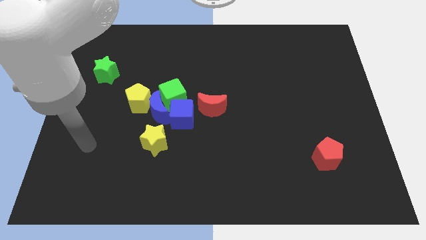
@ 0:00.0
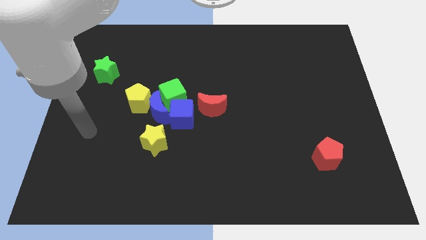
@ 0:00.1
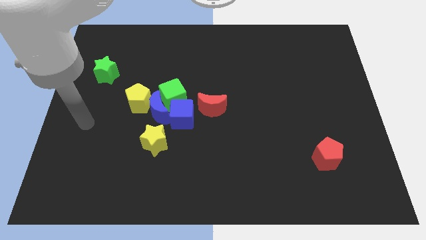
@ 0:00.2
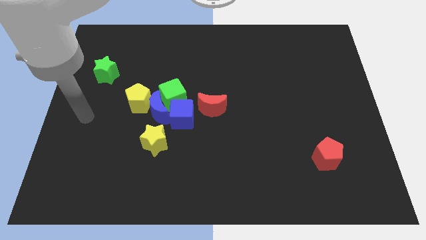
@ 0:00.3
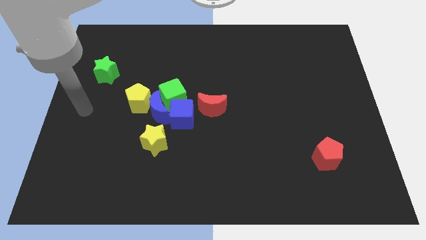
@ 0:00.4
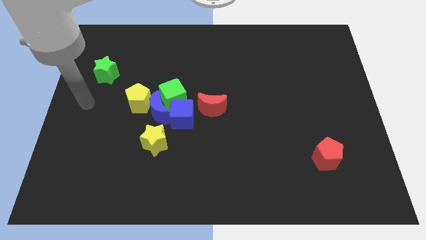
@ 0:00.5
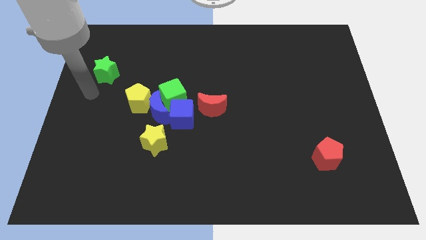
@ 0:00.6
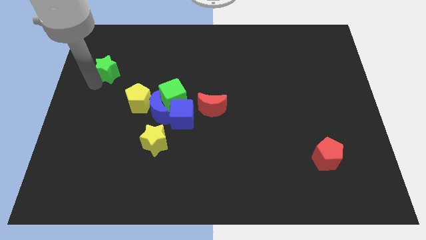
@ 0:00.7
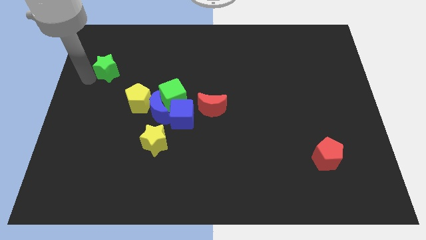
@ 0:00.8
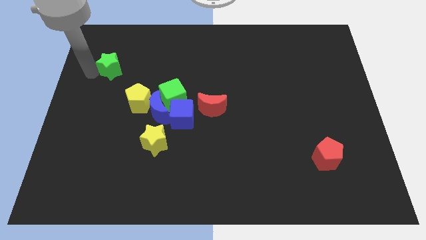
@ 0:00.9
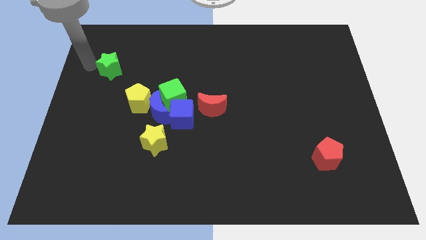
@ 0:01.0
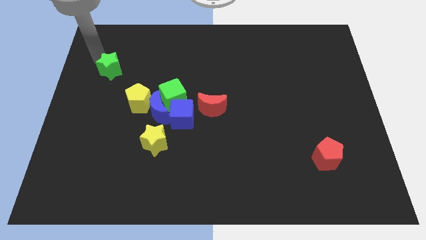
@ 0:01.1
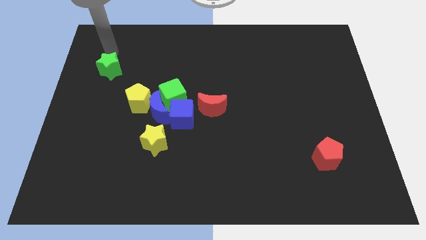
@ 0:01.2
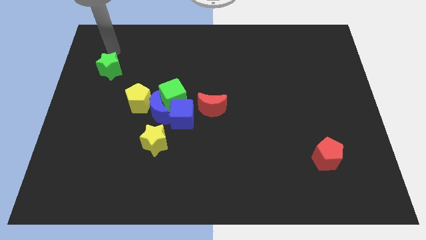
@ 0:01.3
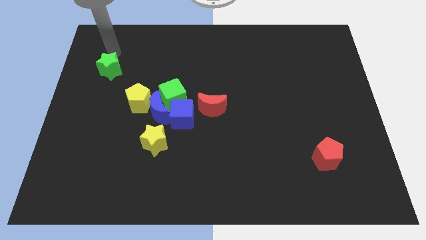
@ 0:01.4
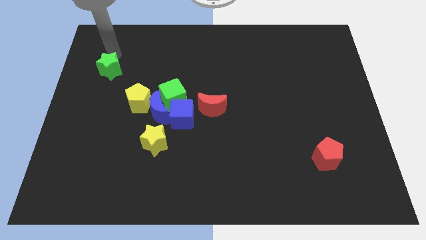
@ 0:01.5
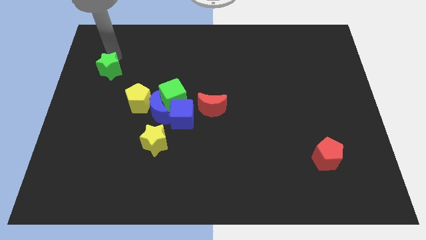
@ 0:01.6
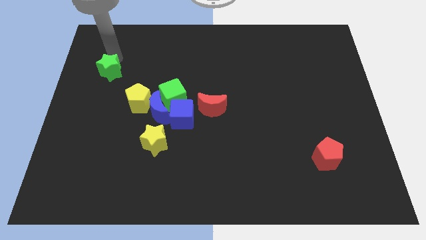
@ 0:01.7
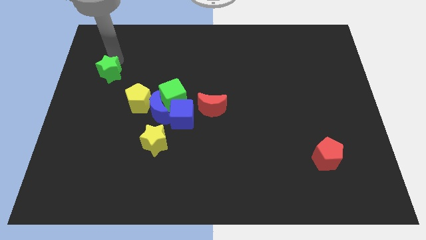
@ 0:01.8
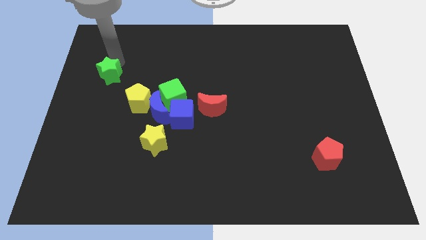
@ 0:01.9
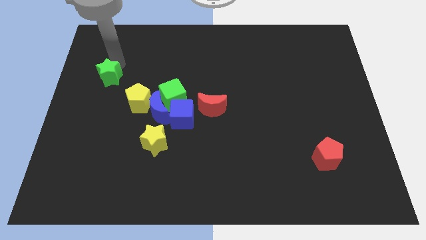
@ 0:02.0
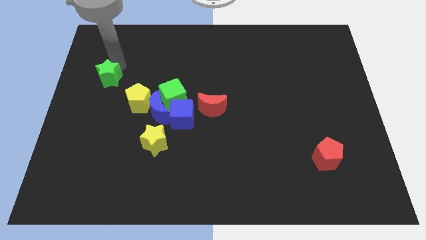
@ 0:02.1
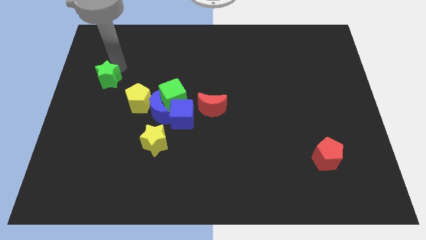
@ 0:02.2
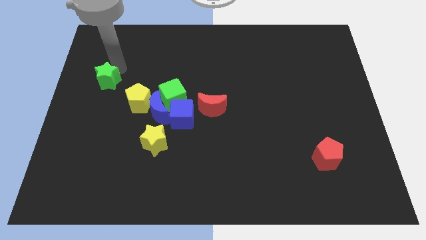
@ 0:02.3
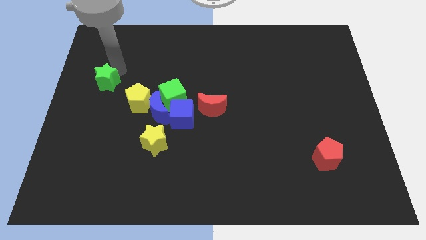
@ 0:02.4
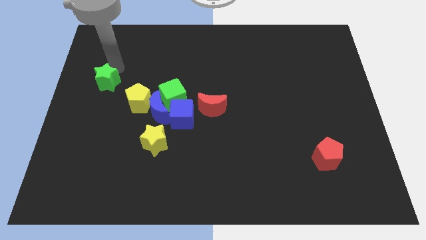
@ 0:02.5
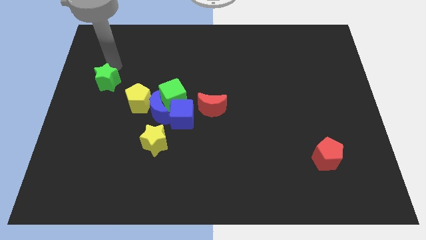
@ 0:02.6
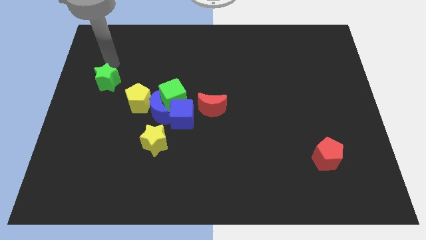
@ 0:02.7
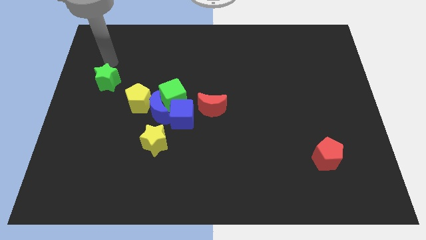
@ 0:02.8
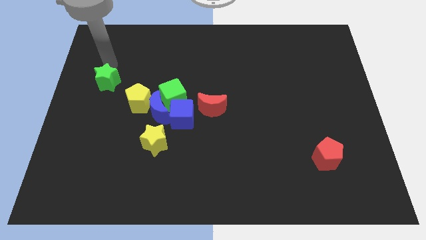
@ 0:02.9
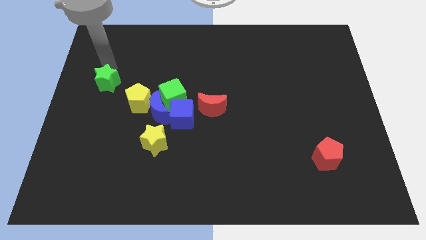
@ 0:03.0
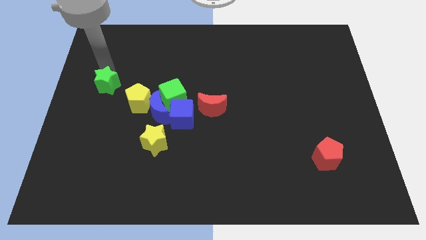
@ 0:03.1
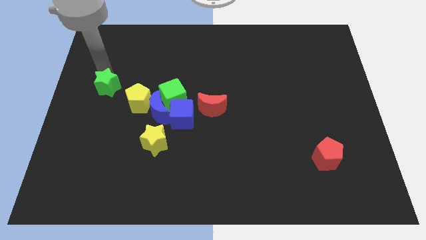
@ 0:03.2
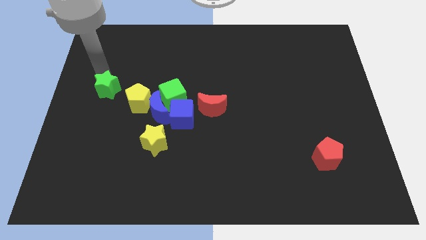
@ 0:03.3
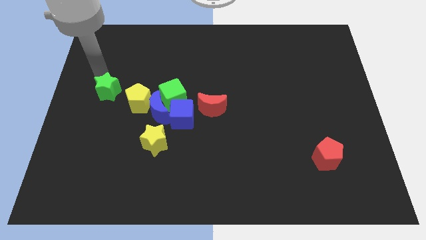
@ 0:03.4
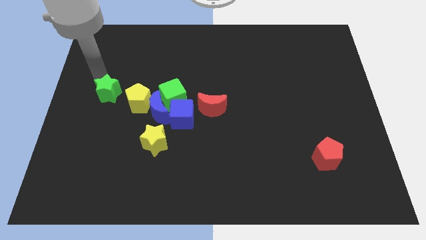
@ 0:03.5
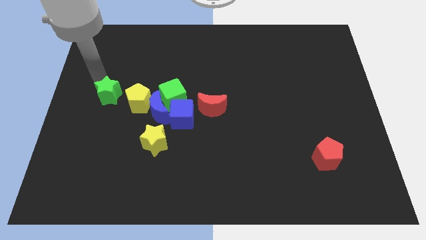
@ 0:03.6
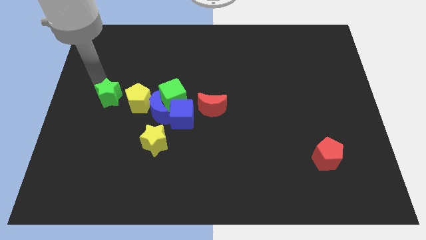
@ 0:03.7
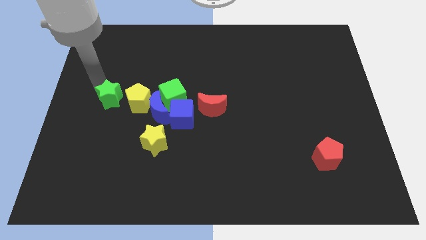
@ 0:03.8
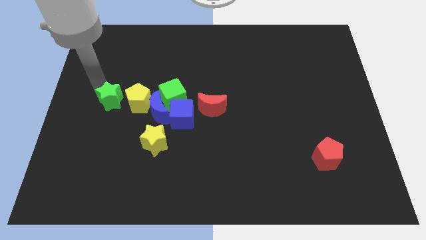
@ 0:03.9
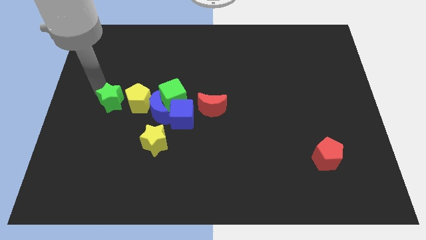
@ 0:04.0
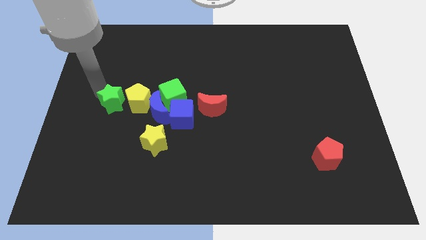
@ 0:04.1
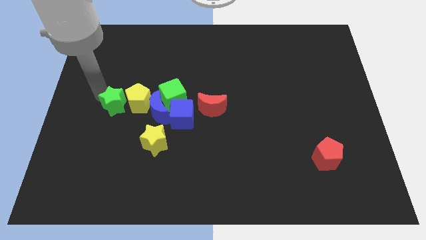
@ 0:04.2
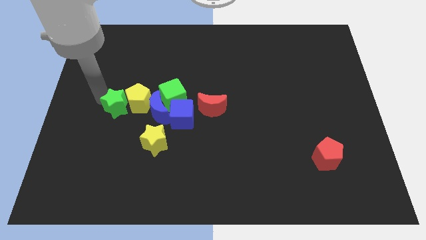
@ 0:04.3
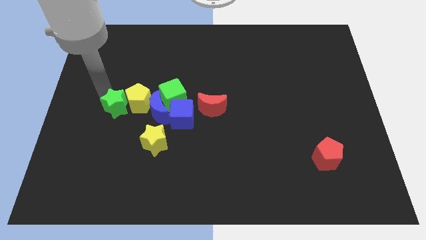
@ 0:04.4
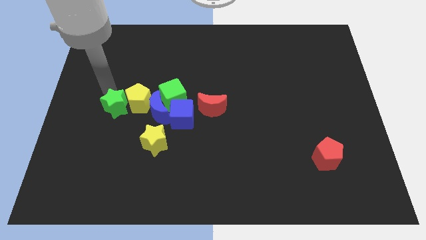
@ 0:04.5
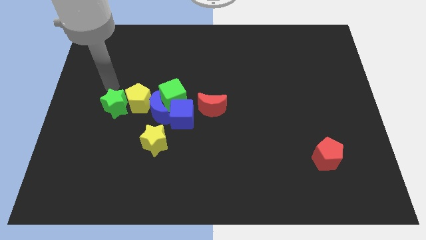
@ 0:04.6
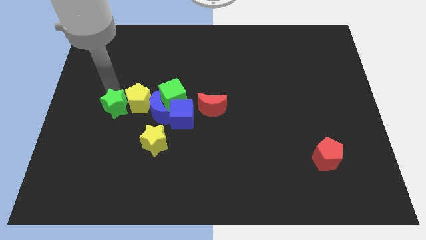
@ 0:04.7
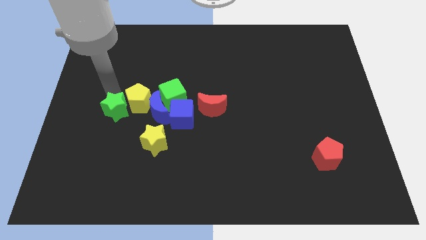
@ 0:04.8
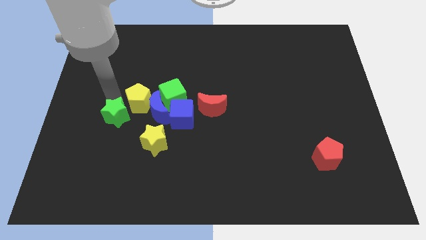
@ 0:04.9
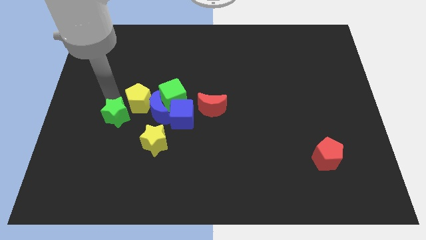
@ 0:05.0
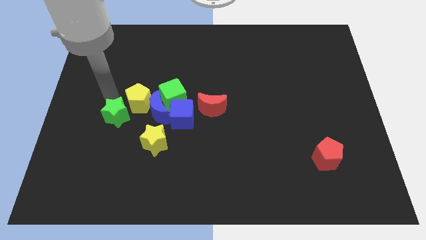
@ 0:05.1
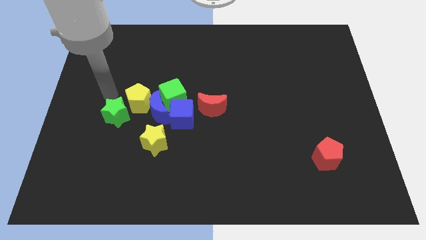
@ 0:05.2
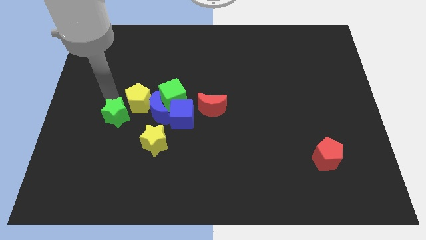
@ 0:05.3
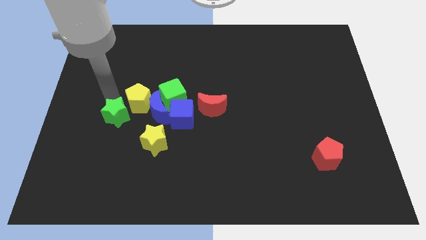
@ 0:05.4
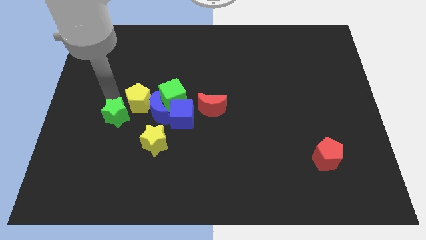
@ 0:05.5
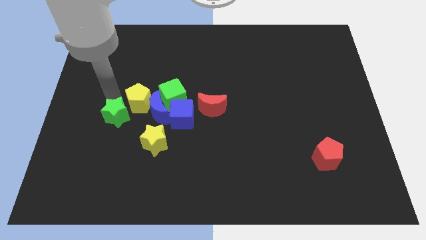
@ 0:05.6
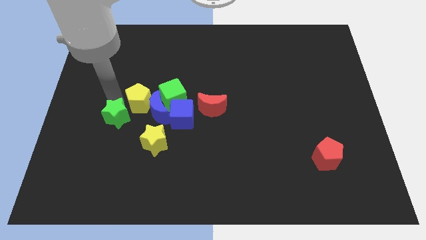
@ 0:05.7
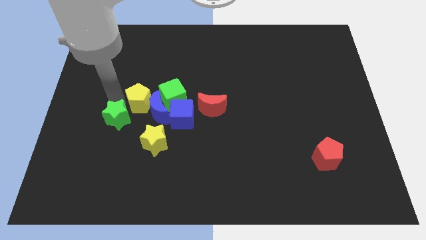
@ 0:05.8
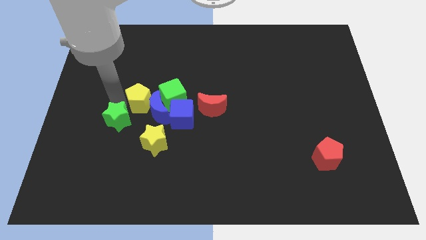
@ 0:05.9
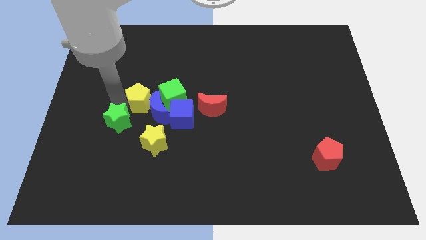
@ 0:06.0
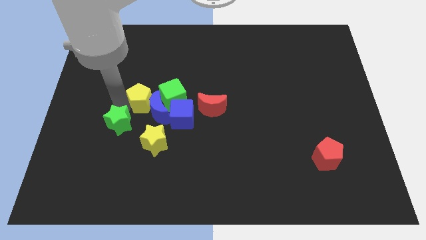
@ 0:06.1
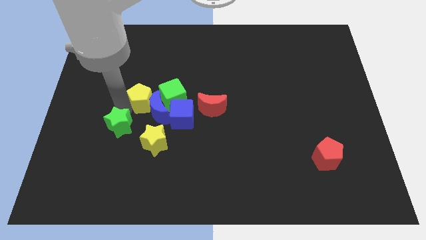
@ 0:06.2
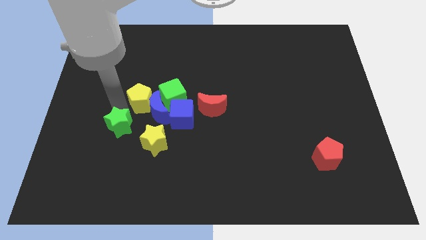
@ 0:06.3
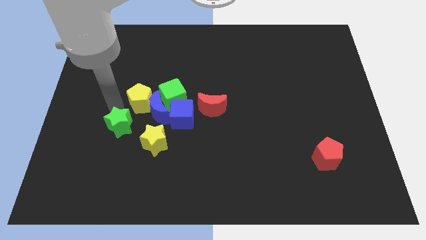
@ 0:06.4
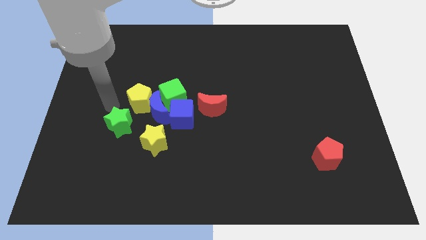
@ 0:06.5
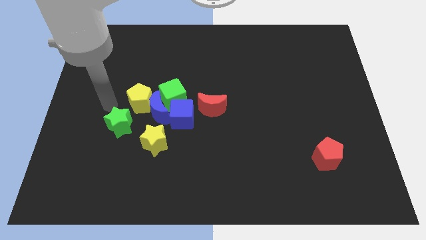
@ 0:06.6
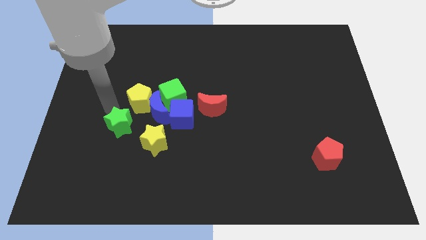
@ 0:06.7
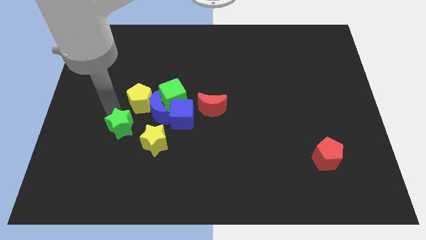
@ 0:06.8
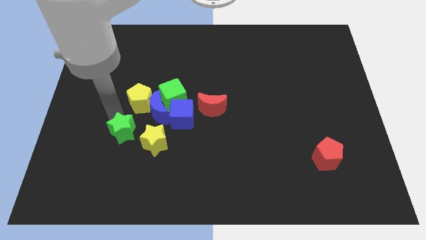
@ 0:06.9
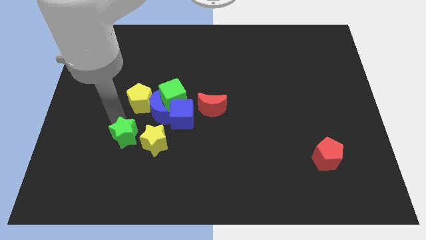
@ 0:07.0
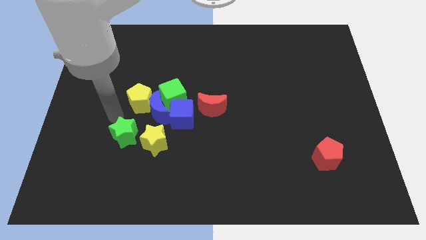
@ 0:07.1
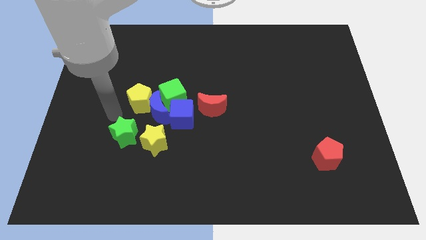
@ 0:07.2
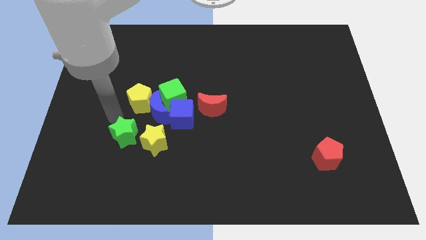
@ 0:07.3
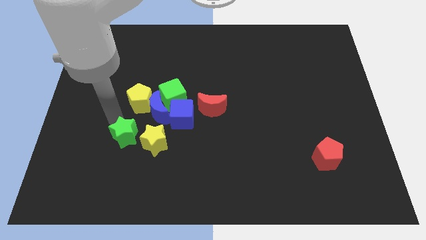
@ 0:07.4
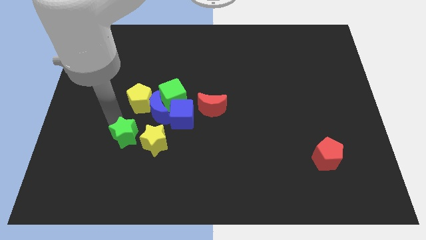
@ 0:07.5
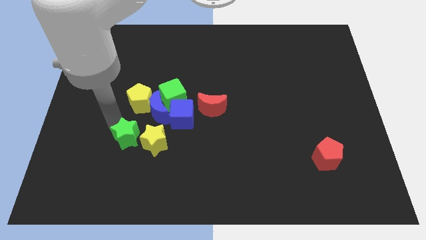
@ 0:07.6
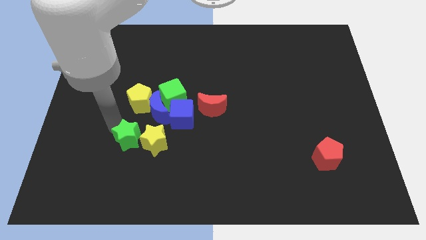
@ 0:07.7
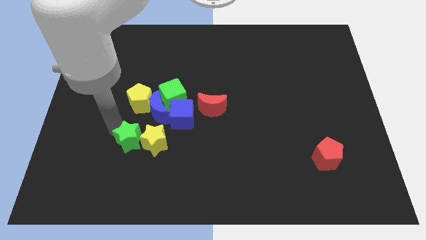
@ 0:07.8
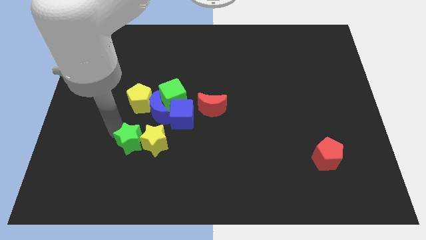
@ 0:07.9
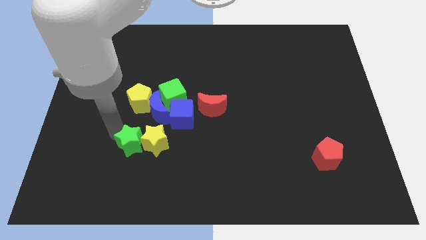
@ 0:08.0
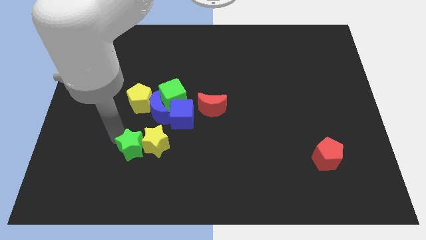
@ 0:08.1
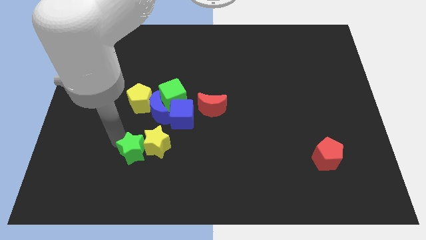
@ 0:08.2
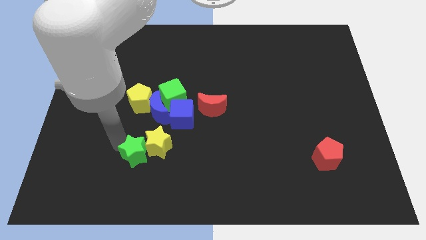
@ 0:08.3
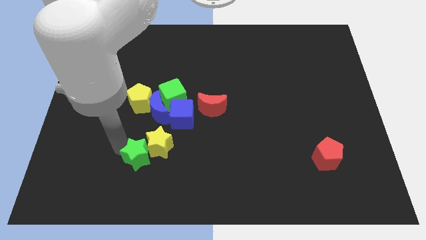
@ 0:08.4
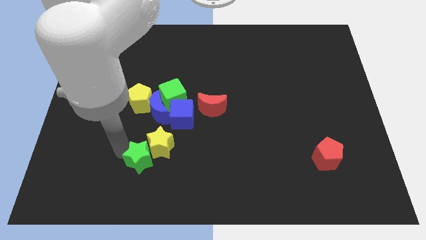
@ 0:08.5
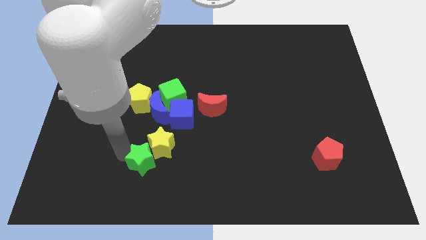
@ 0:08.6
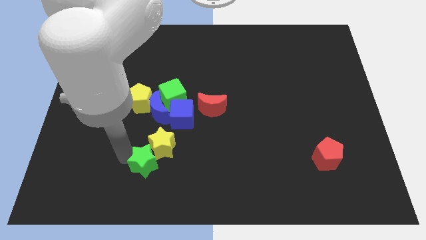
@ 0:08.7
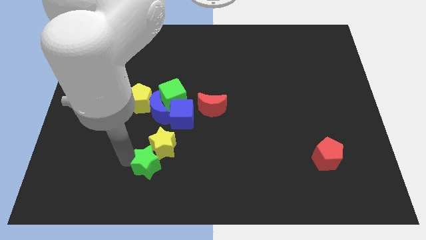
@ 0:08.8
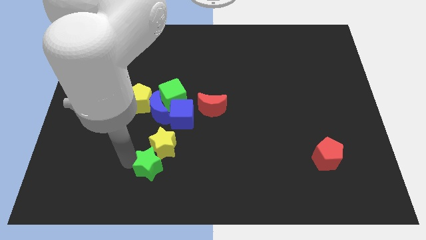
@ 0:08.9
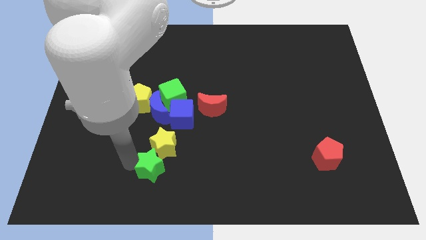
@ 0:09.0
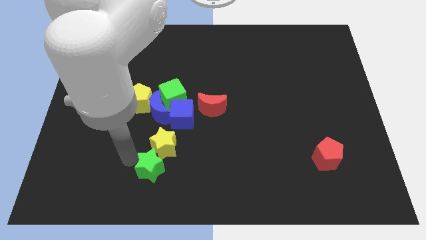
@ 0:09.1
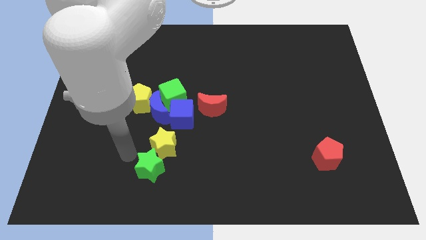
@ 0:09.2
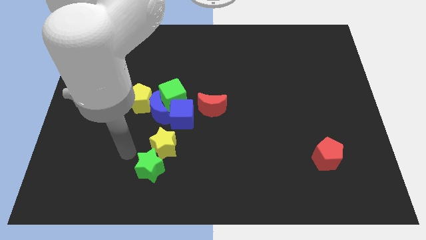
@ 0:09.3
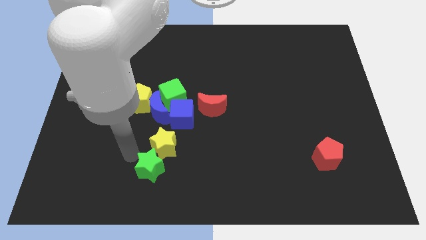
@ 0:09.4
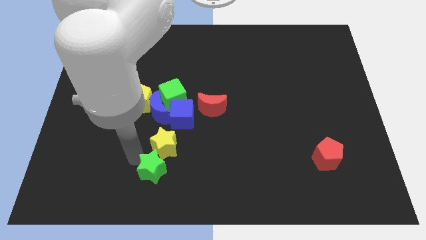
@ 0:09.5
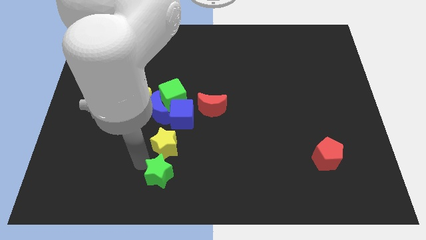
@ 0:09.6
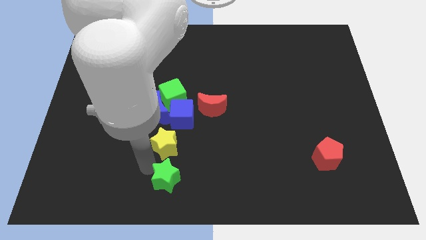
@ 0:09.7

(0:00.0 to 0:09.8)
move the green star to the bottom side
